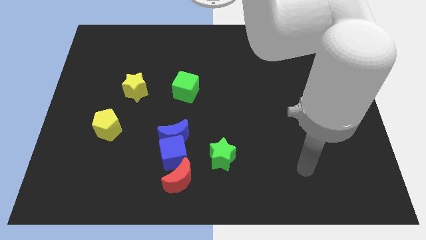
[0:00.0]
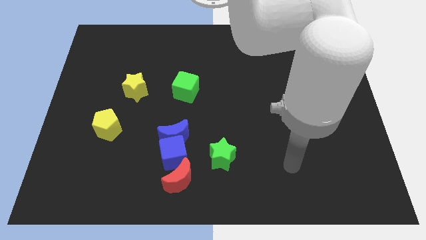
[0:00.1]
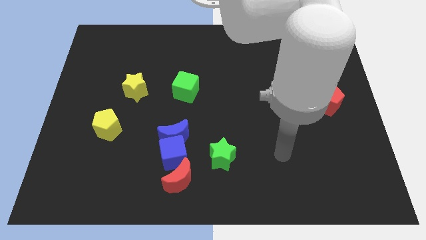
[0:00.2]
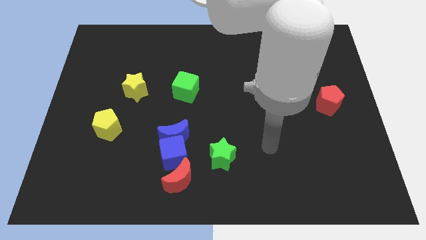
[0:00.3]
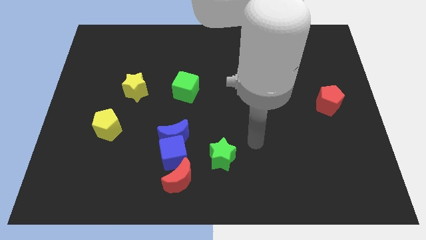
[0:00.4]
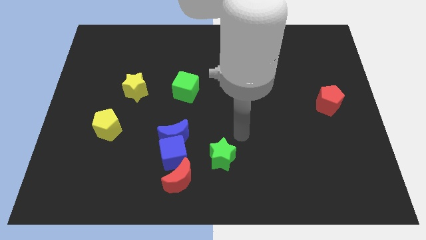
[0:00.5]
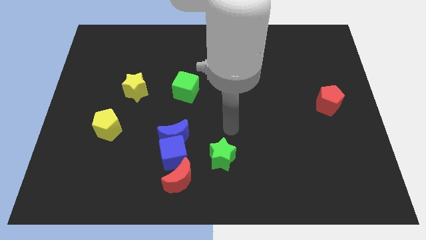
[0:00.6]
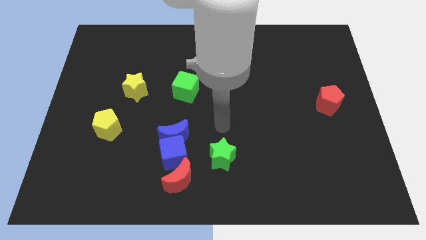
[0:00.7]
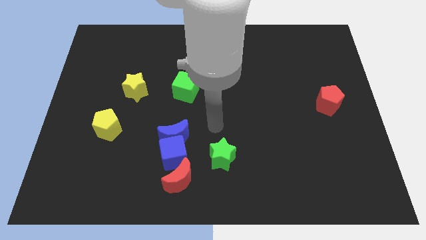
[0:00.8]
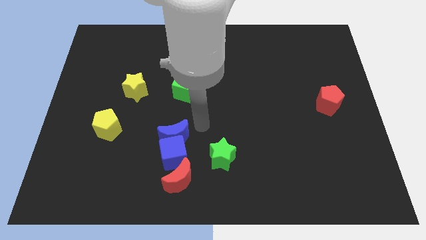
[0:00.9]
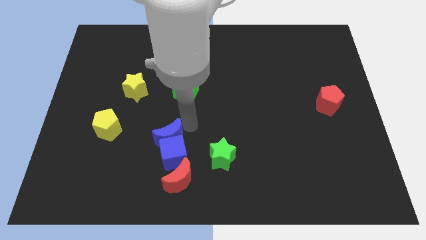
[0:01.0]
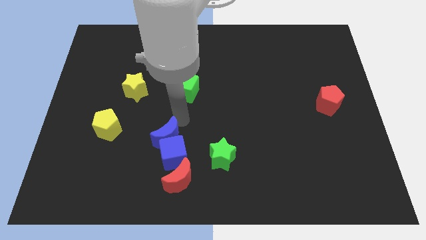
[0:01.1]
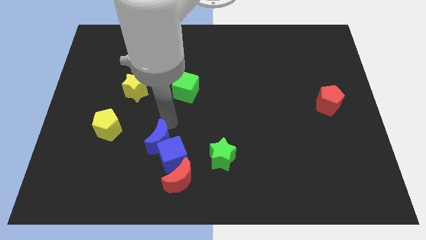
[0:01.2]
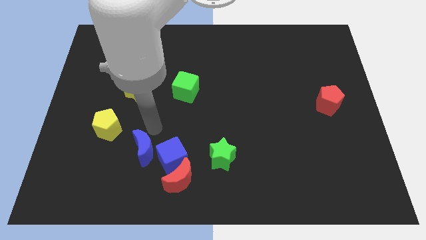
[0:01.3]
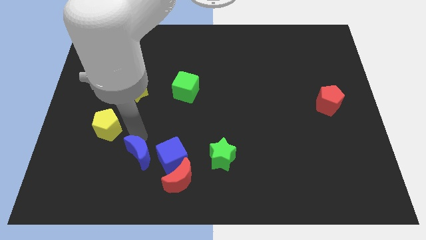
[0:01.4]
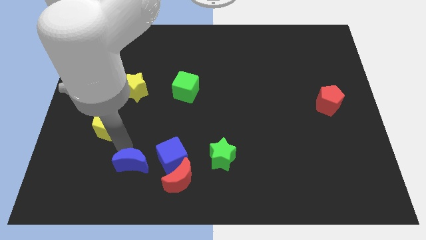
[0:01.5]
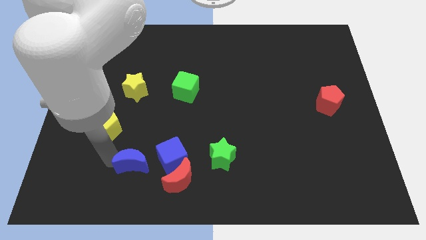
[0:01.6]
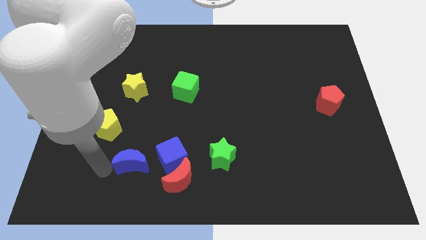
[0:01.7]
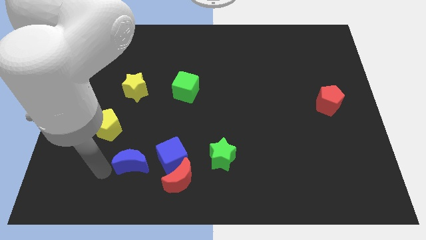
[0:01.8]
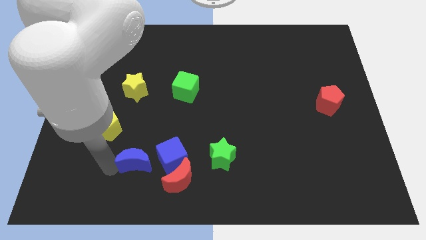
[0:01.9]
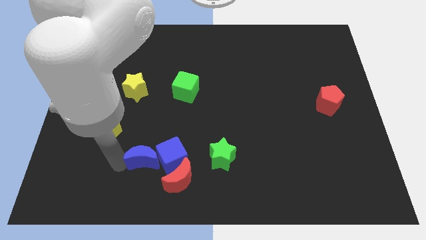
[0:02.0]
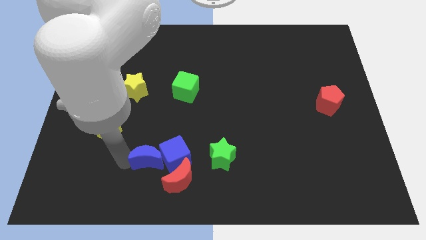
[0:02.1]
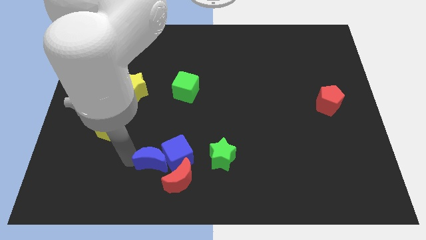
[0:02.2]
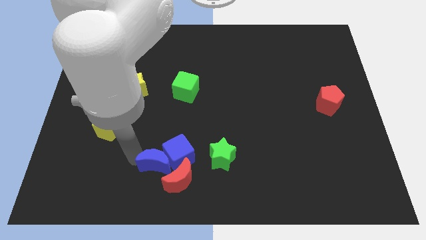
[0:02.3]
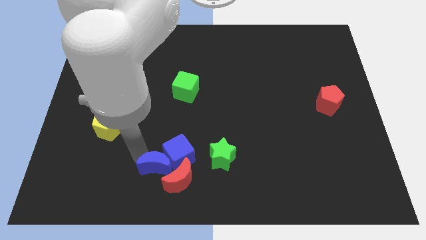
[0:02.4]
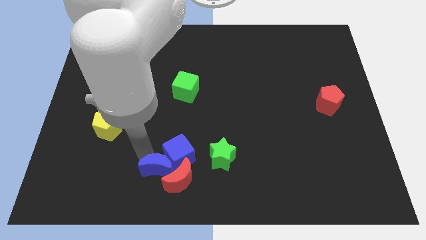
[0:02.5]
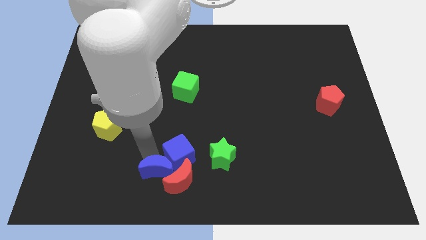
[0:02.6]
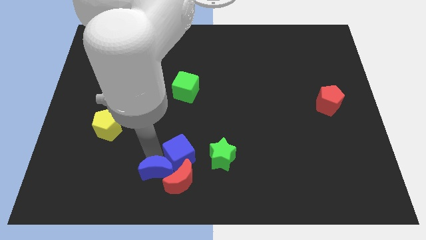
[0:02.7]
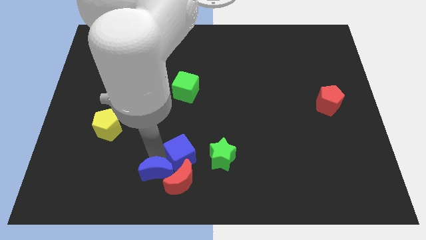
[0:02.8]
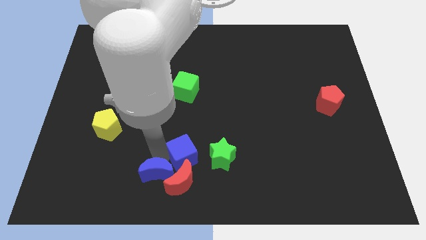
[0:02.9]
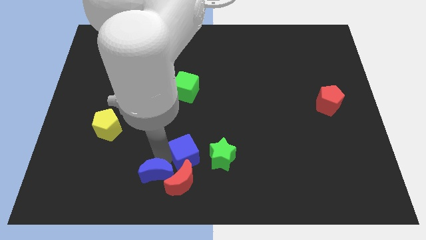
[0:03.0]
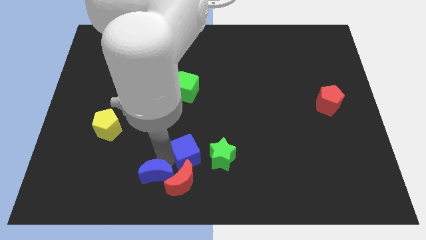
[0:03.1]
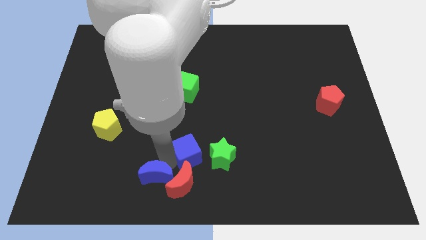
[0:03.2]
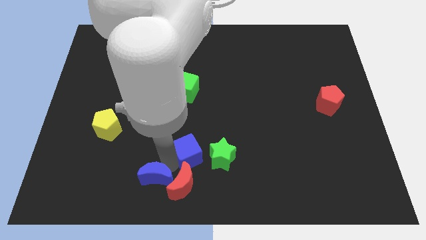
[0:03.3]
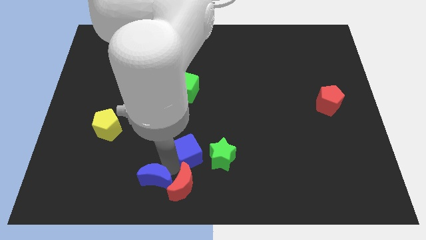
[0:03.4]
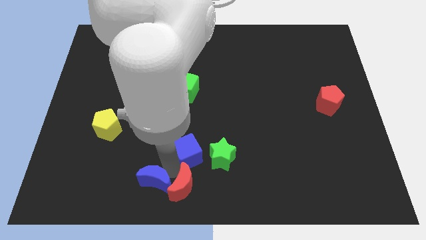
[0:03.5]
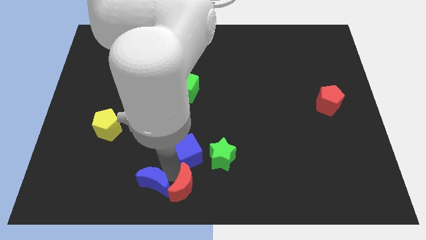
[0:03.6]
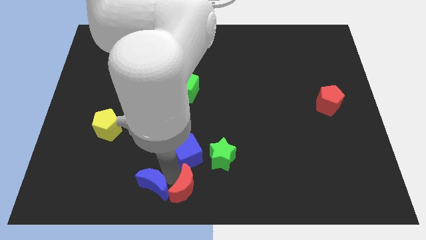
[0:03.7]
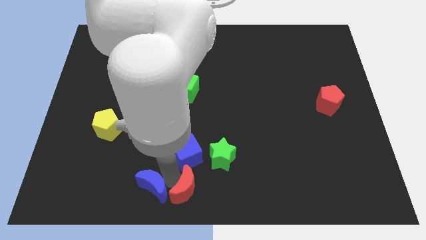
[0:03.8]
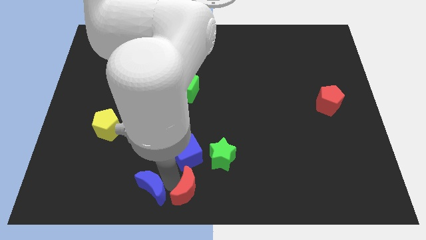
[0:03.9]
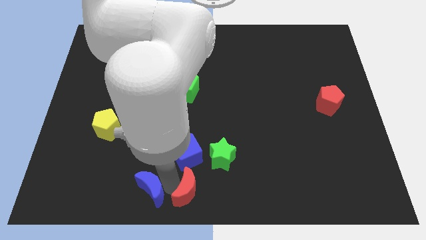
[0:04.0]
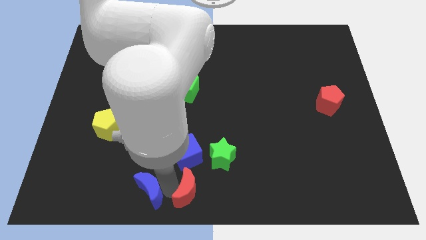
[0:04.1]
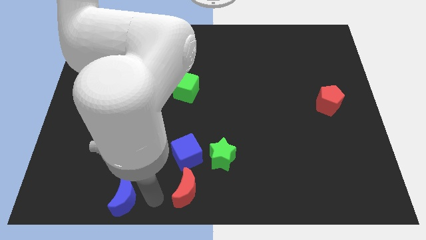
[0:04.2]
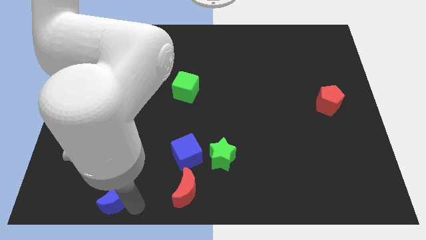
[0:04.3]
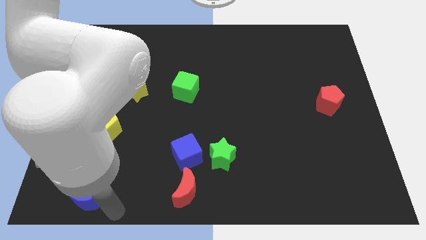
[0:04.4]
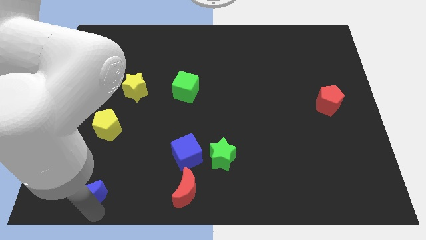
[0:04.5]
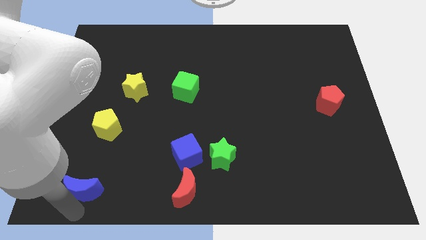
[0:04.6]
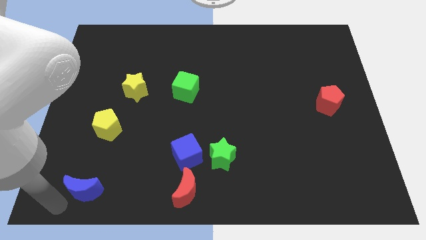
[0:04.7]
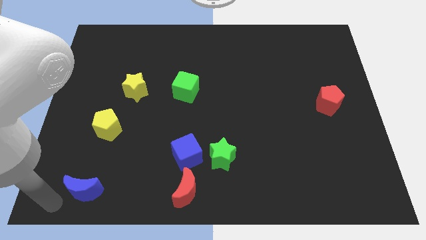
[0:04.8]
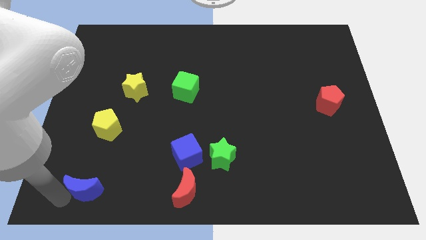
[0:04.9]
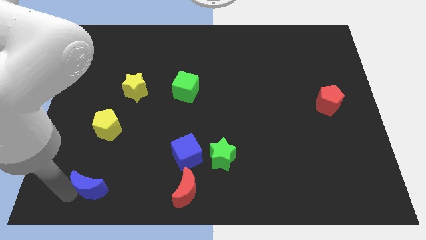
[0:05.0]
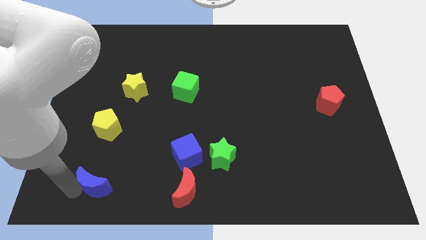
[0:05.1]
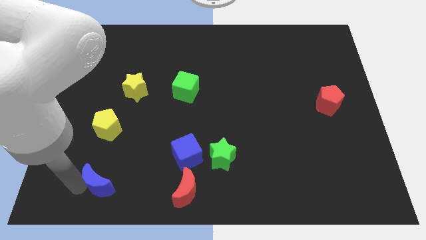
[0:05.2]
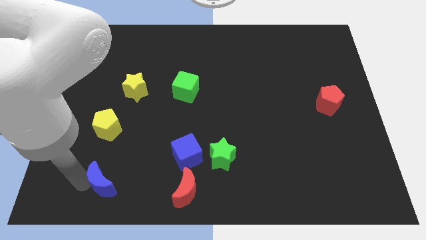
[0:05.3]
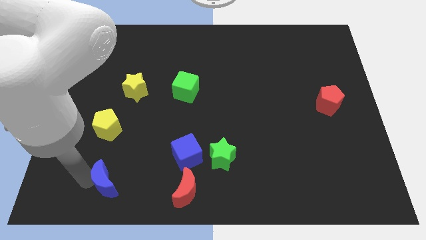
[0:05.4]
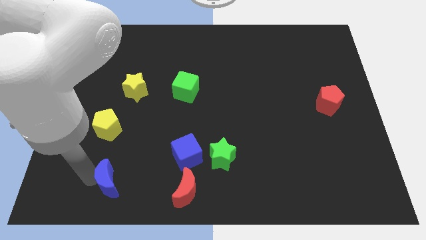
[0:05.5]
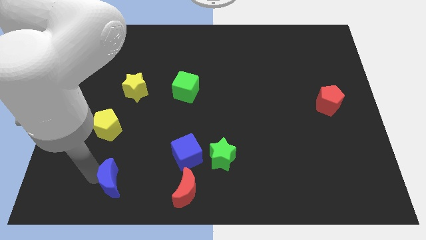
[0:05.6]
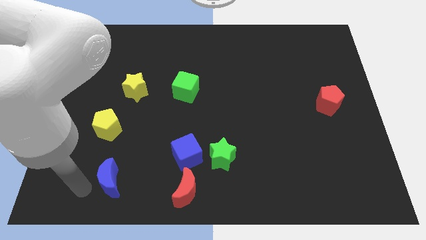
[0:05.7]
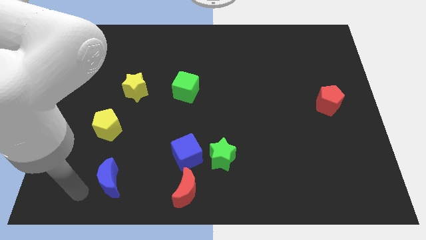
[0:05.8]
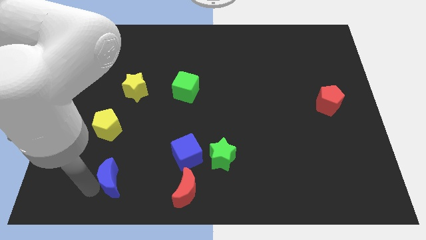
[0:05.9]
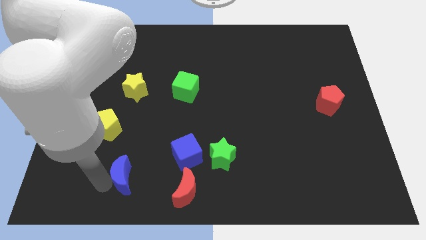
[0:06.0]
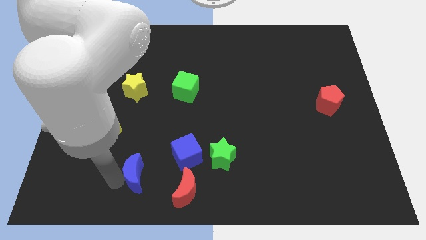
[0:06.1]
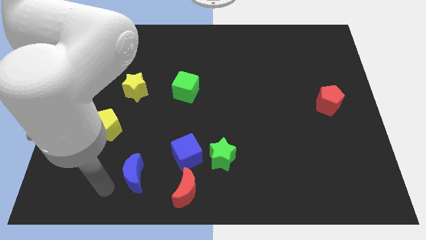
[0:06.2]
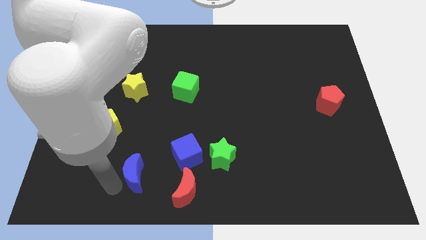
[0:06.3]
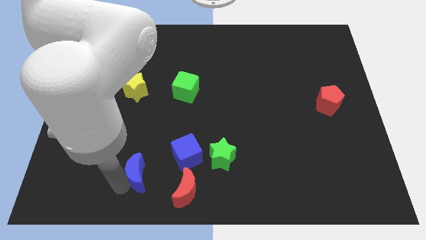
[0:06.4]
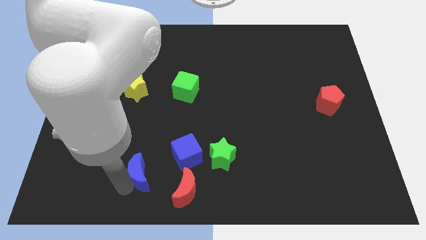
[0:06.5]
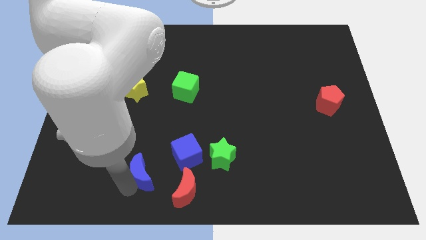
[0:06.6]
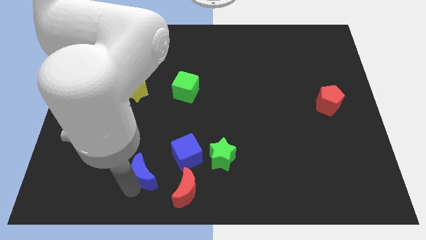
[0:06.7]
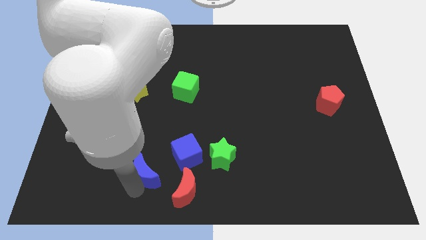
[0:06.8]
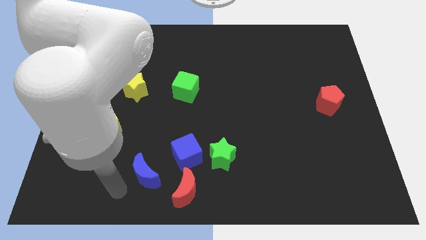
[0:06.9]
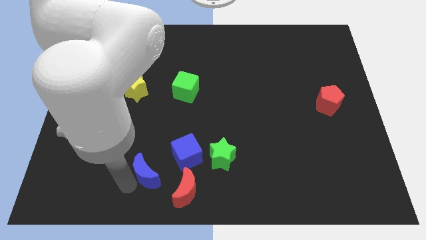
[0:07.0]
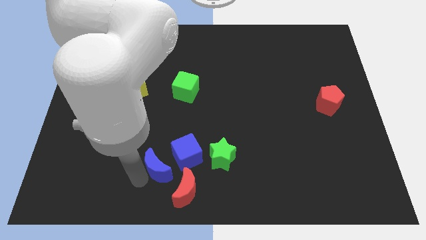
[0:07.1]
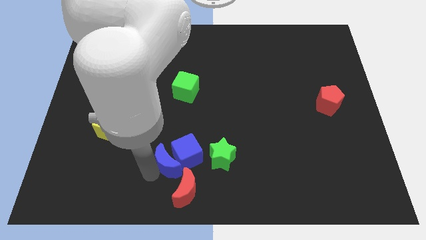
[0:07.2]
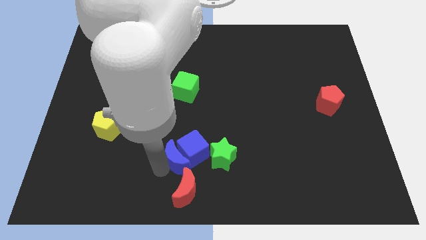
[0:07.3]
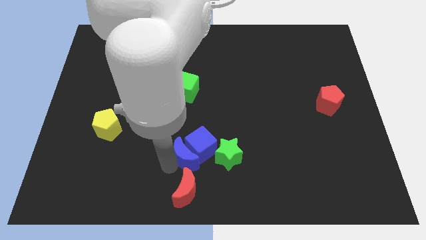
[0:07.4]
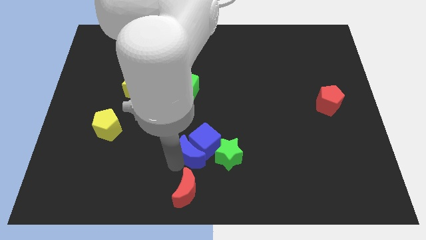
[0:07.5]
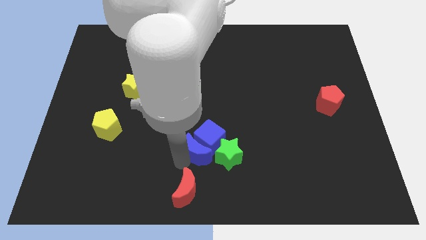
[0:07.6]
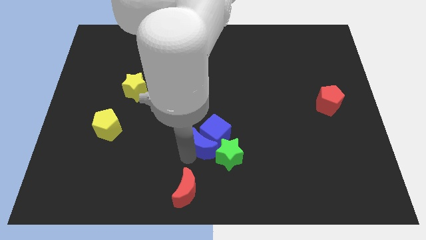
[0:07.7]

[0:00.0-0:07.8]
slide the blue moon towards the green star
